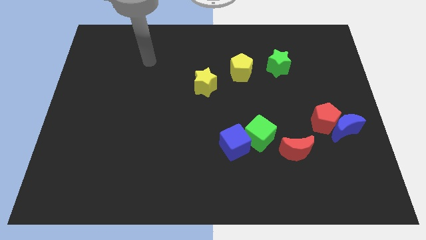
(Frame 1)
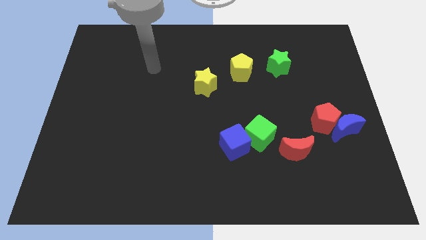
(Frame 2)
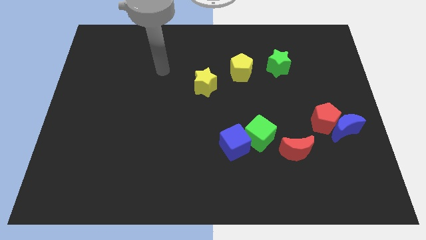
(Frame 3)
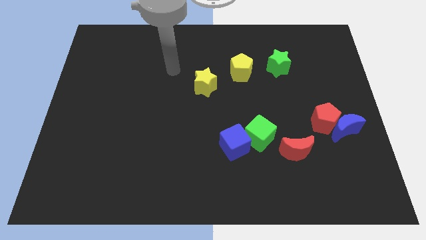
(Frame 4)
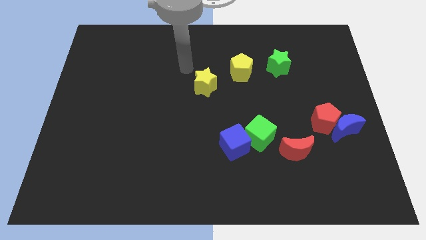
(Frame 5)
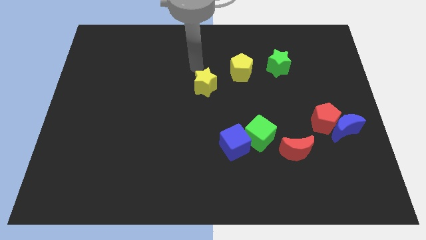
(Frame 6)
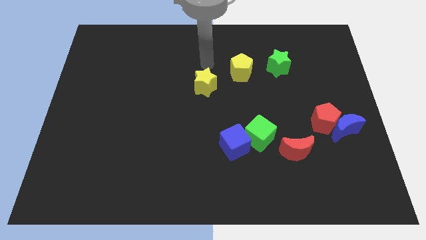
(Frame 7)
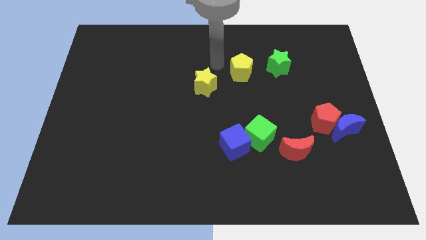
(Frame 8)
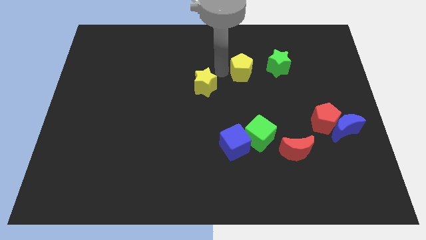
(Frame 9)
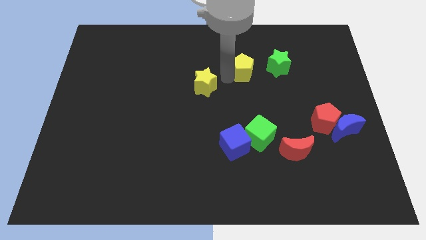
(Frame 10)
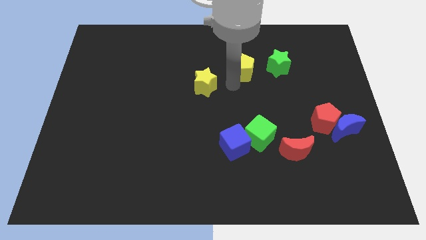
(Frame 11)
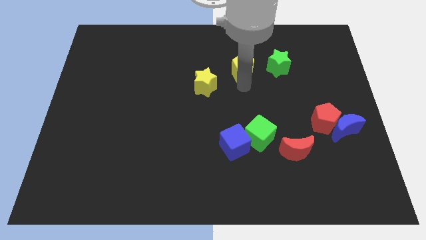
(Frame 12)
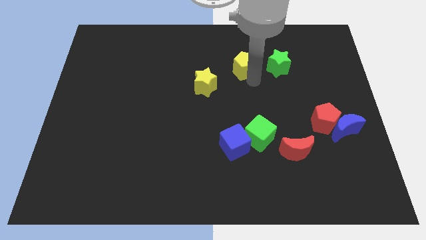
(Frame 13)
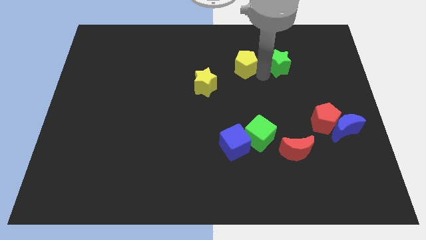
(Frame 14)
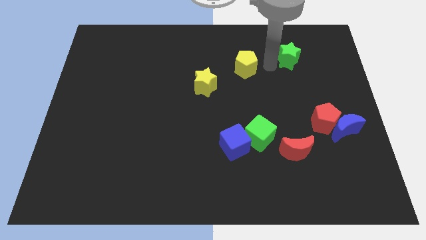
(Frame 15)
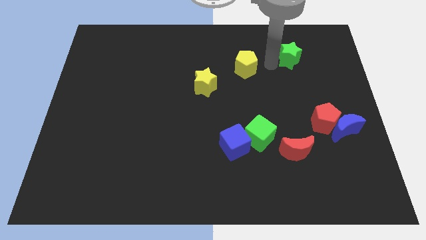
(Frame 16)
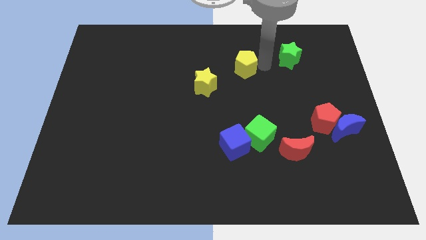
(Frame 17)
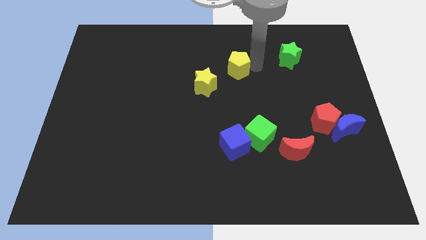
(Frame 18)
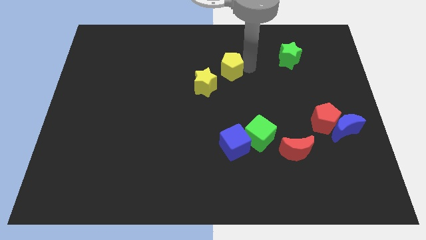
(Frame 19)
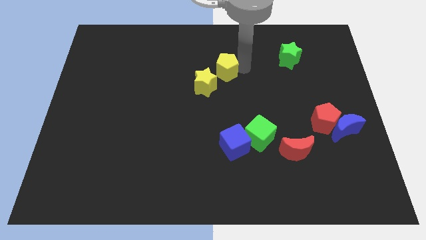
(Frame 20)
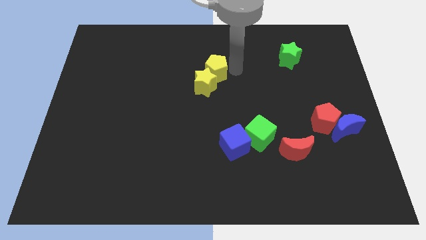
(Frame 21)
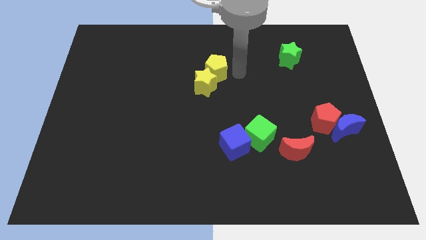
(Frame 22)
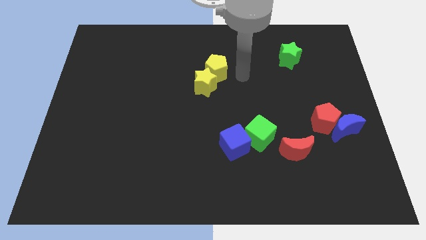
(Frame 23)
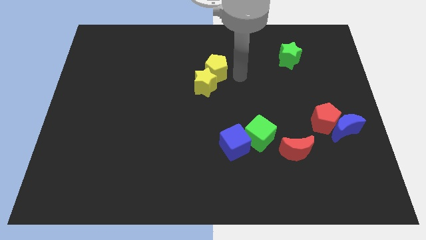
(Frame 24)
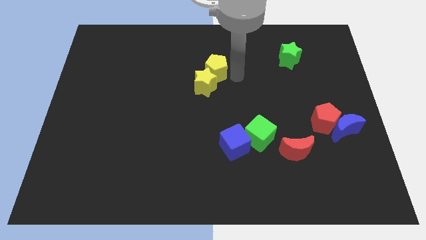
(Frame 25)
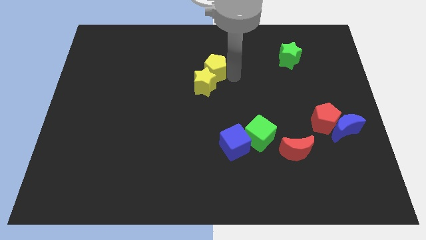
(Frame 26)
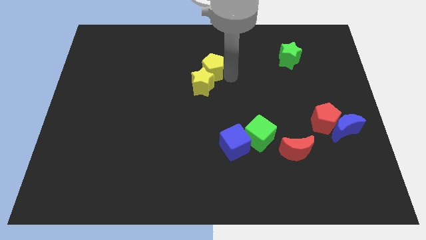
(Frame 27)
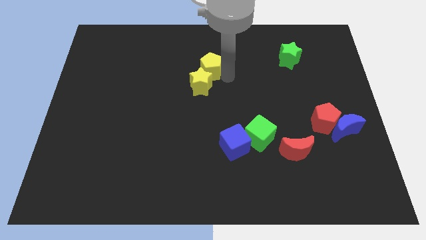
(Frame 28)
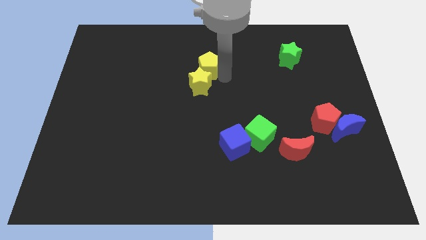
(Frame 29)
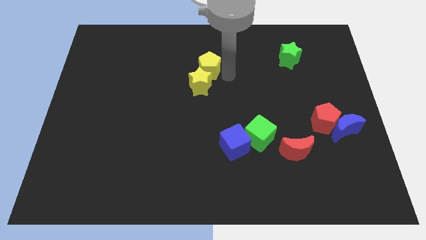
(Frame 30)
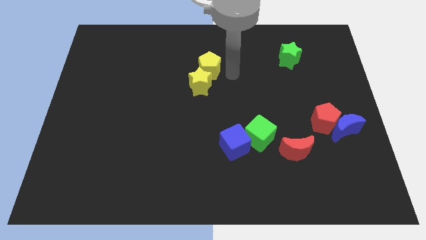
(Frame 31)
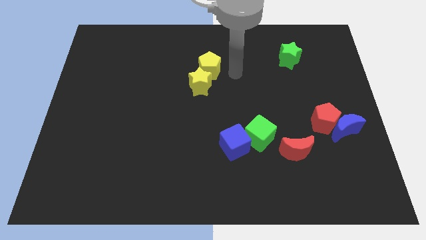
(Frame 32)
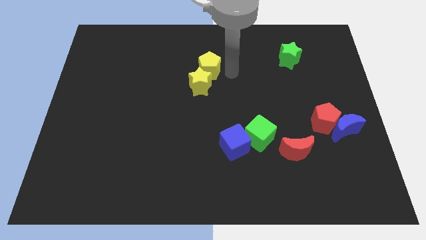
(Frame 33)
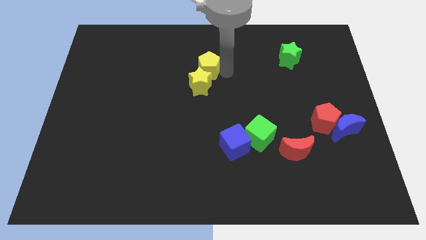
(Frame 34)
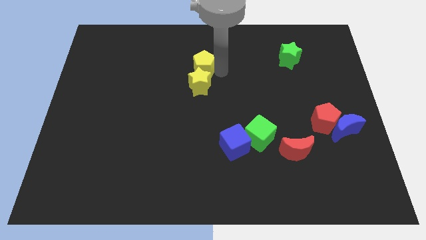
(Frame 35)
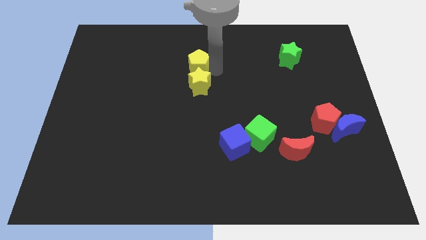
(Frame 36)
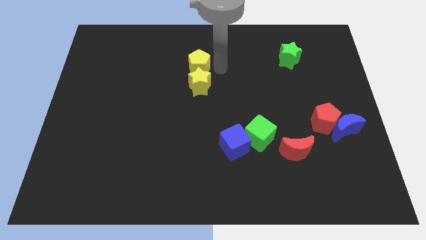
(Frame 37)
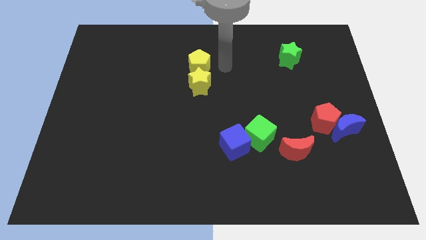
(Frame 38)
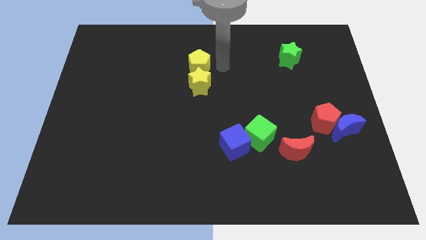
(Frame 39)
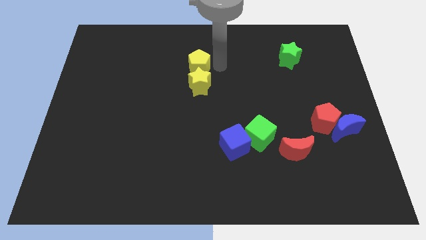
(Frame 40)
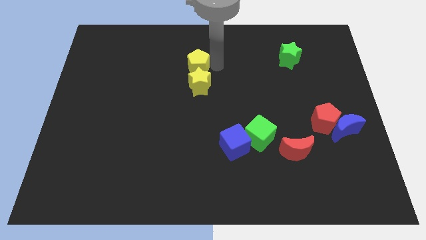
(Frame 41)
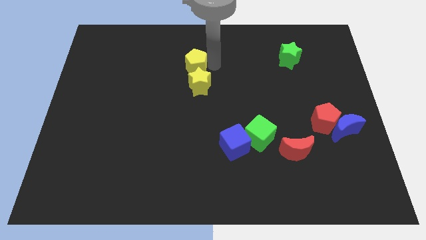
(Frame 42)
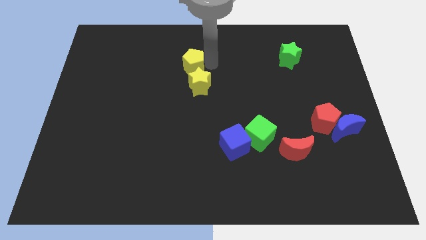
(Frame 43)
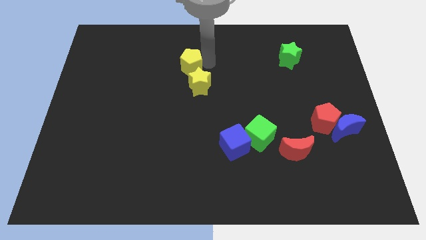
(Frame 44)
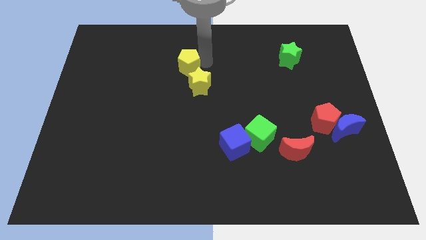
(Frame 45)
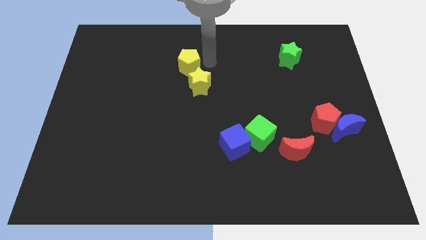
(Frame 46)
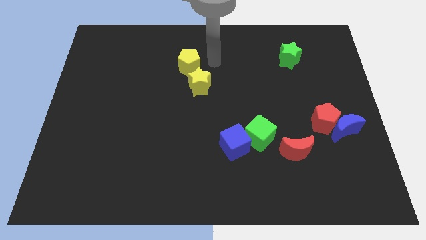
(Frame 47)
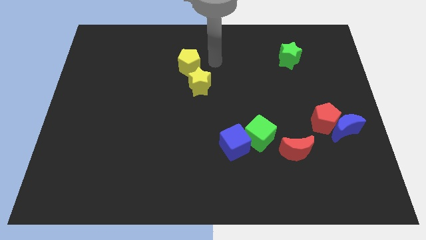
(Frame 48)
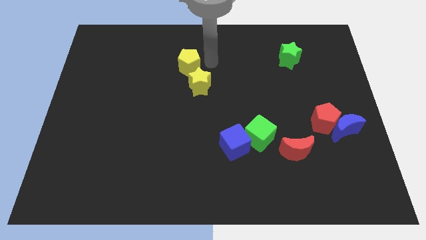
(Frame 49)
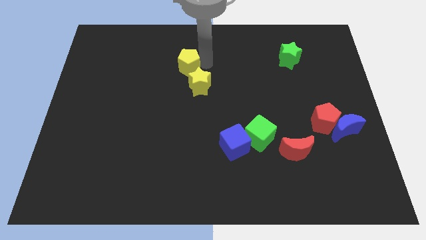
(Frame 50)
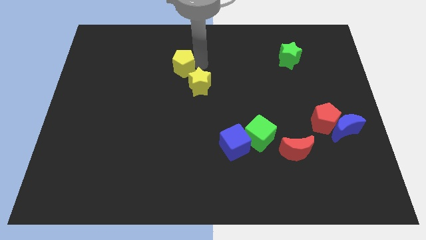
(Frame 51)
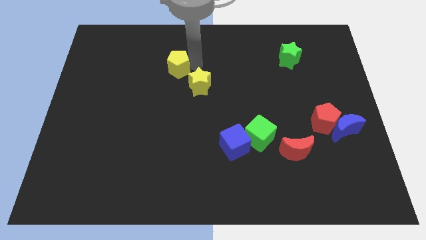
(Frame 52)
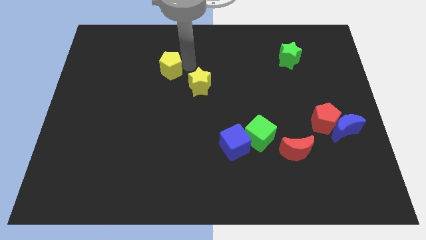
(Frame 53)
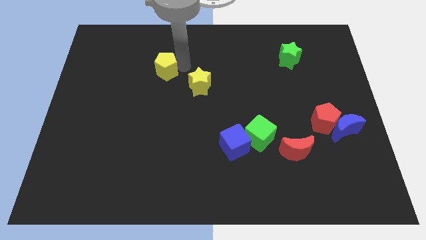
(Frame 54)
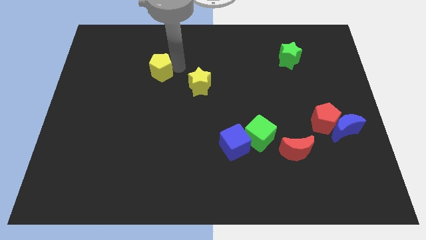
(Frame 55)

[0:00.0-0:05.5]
move the yellow pentagon to the left

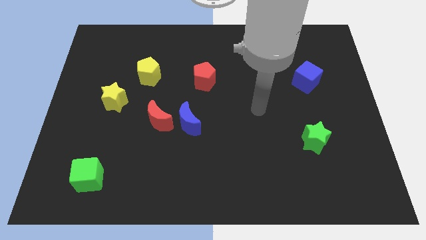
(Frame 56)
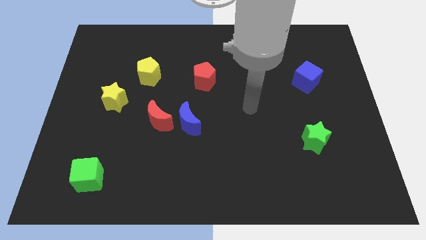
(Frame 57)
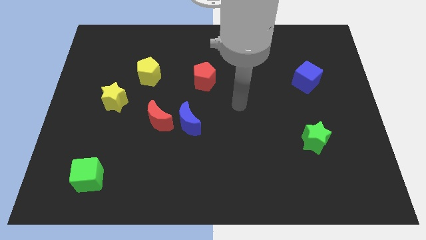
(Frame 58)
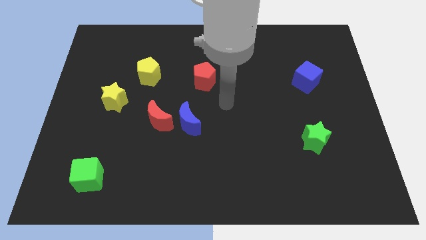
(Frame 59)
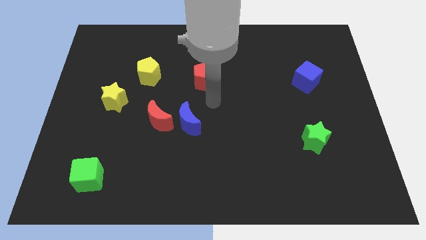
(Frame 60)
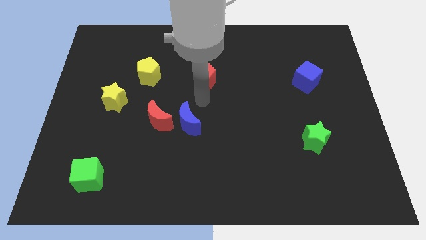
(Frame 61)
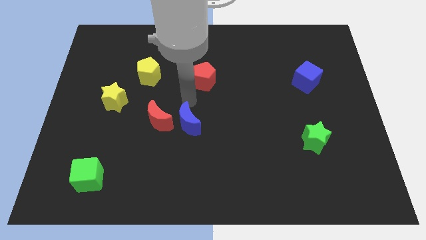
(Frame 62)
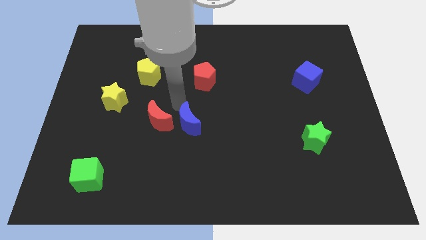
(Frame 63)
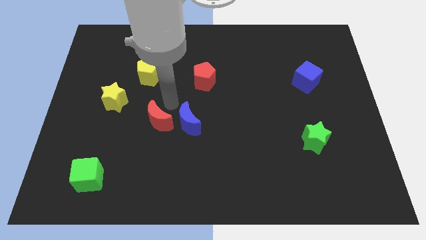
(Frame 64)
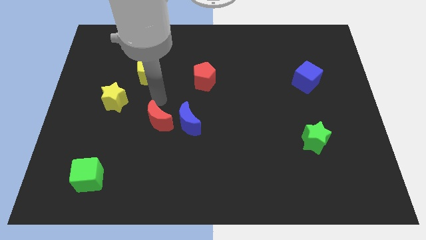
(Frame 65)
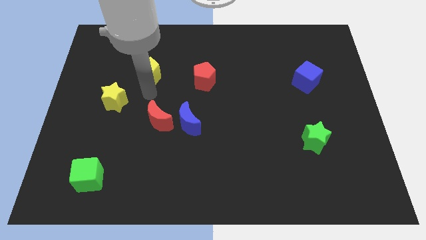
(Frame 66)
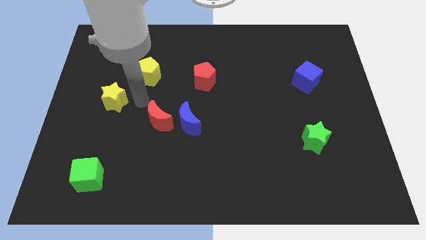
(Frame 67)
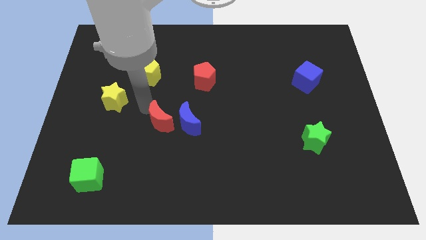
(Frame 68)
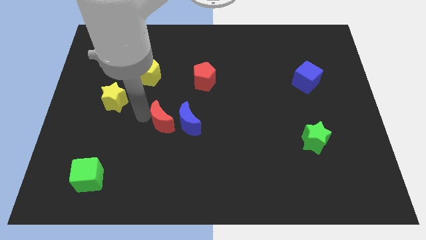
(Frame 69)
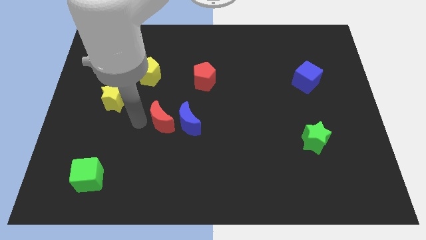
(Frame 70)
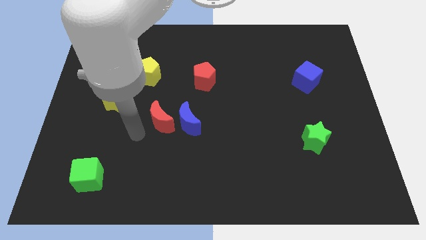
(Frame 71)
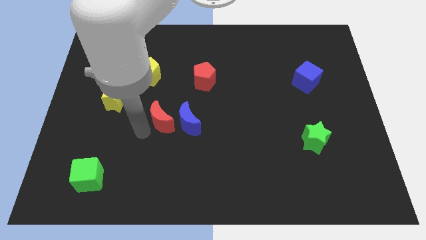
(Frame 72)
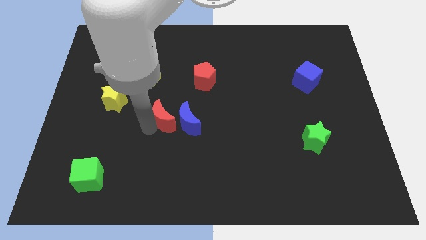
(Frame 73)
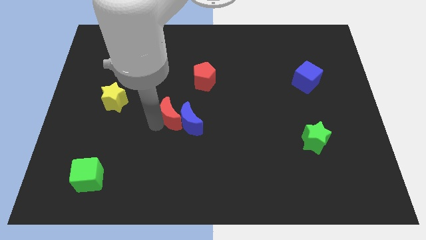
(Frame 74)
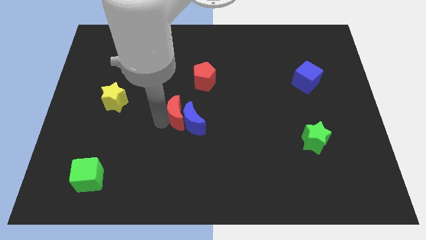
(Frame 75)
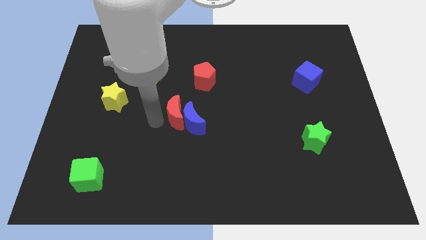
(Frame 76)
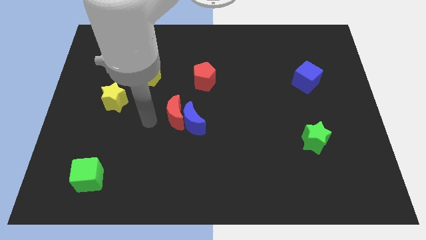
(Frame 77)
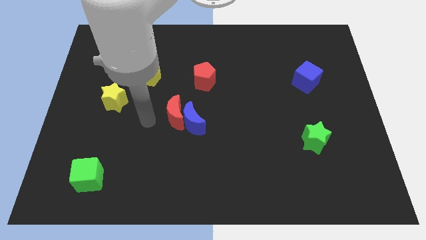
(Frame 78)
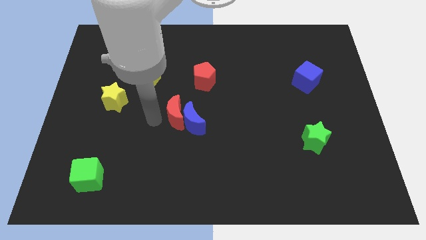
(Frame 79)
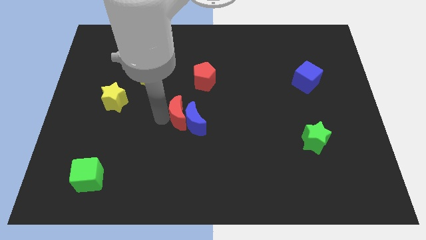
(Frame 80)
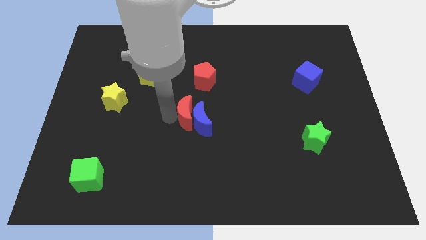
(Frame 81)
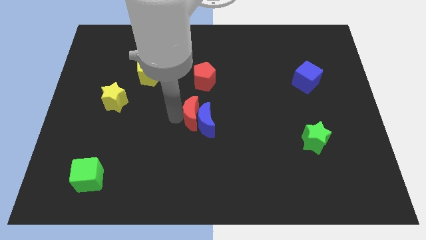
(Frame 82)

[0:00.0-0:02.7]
slightly push the red moon to the right
